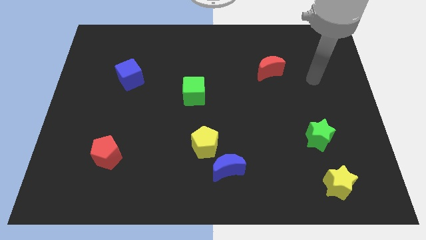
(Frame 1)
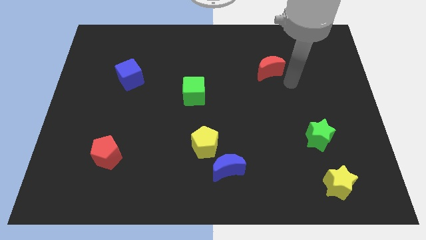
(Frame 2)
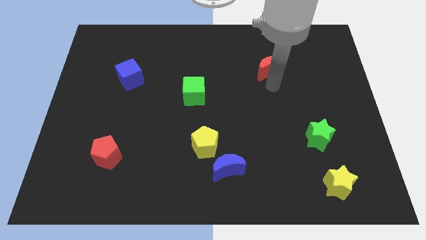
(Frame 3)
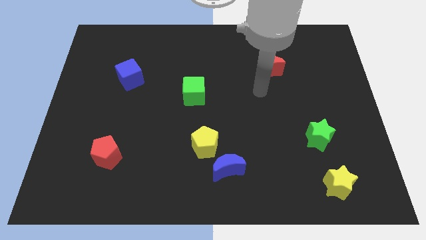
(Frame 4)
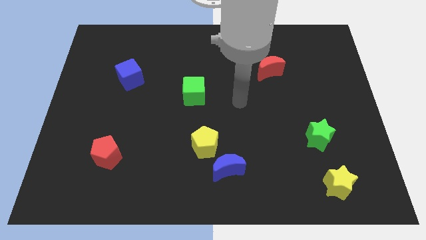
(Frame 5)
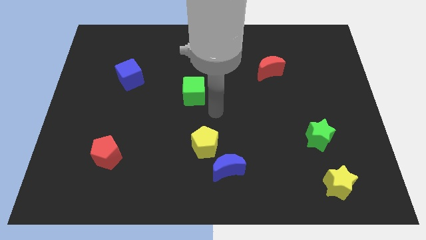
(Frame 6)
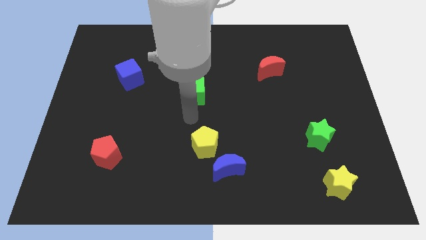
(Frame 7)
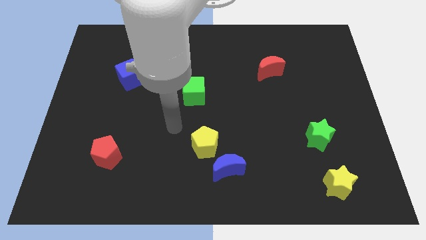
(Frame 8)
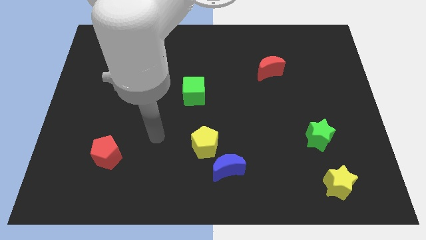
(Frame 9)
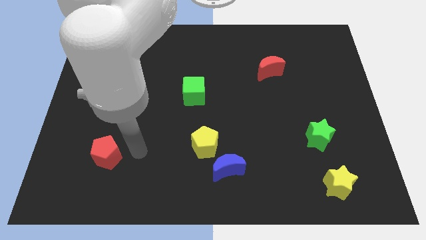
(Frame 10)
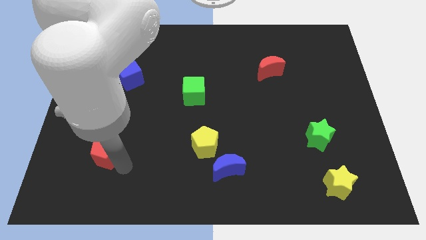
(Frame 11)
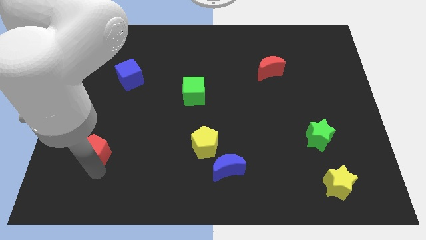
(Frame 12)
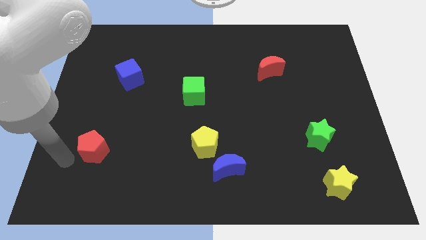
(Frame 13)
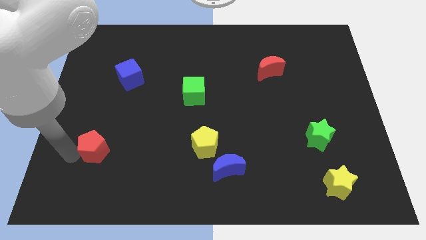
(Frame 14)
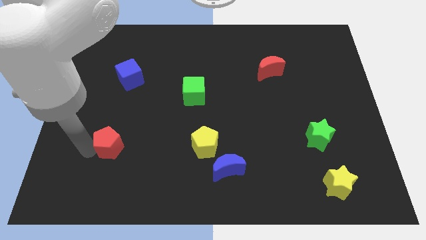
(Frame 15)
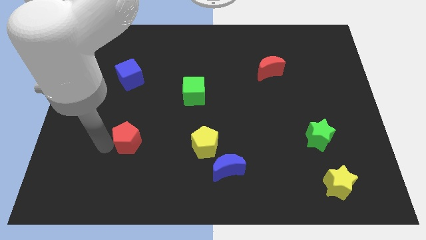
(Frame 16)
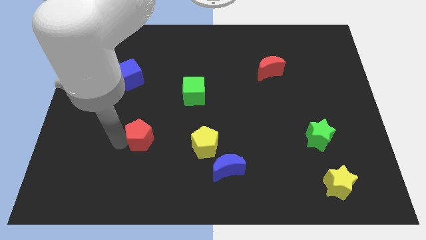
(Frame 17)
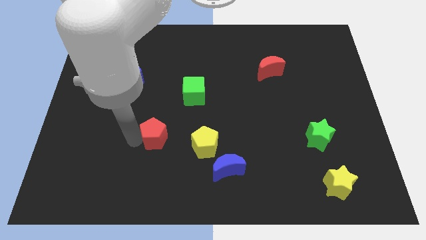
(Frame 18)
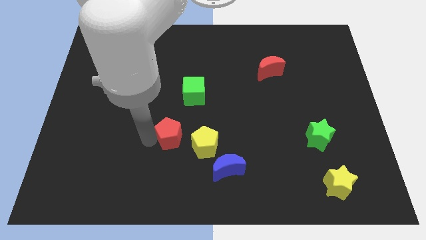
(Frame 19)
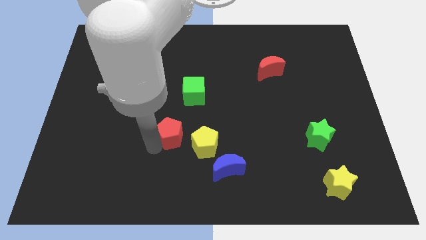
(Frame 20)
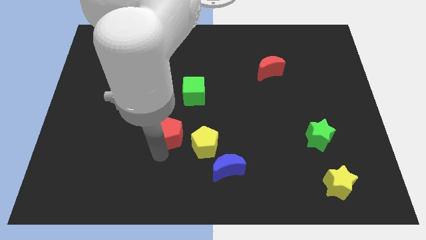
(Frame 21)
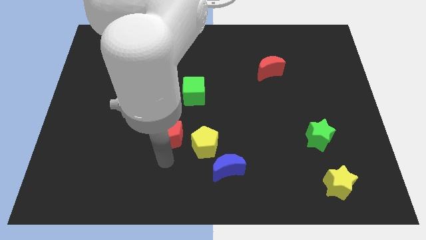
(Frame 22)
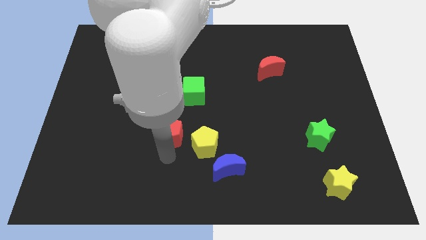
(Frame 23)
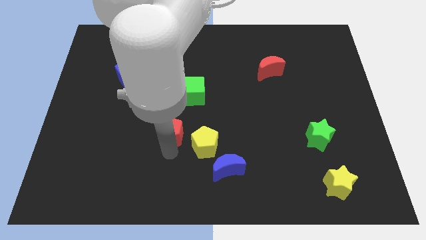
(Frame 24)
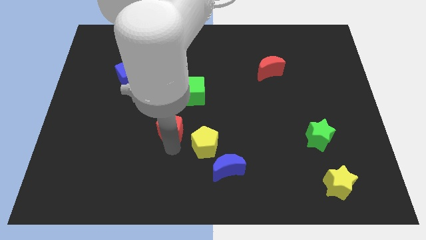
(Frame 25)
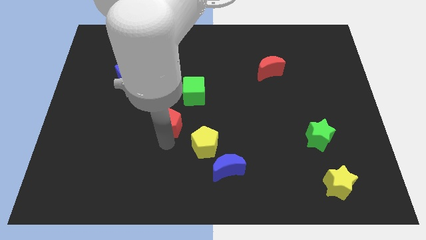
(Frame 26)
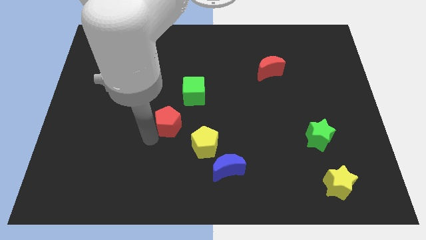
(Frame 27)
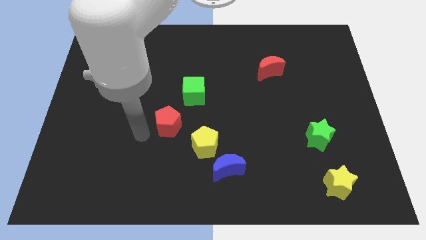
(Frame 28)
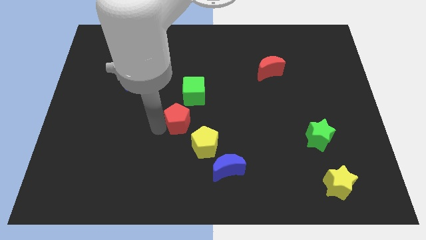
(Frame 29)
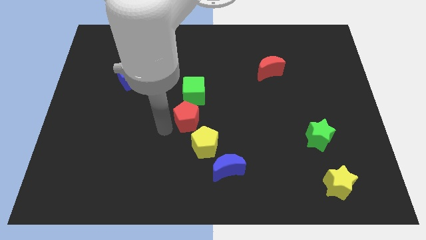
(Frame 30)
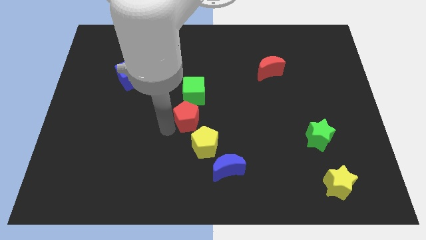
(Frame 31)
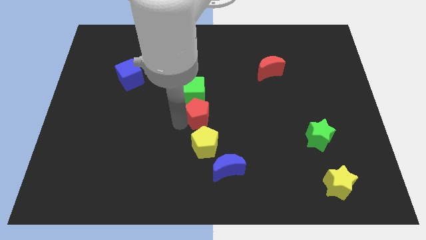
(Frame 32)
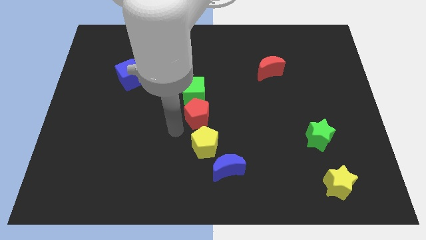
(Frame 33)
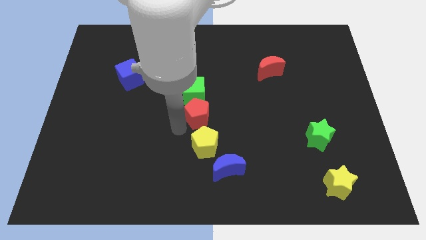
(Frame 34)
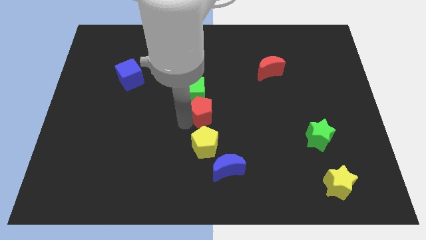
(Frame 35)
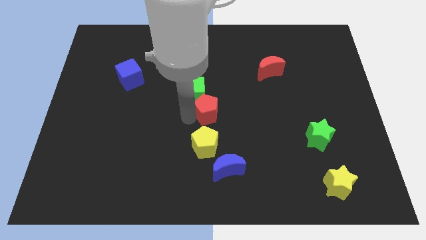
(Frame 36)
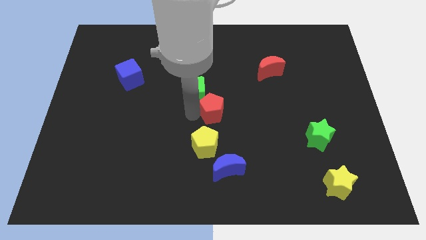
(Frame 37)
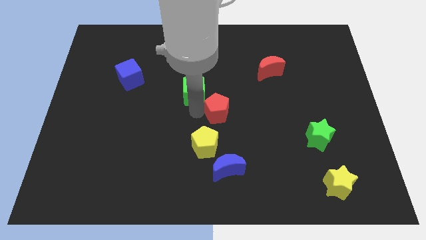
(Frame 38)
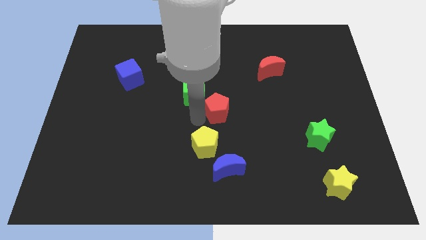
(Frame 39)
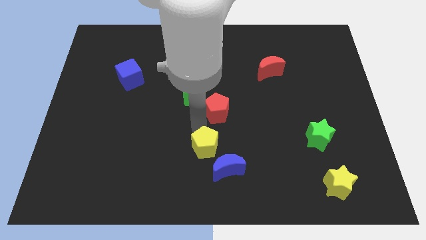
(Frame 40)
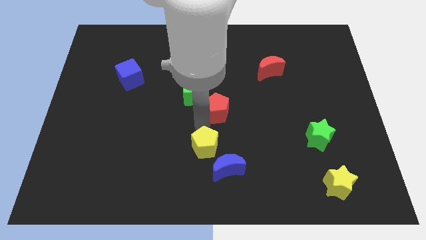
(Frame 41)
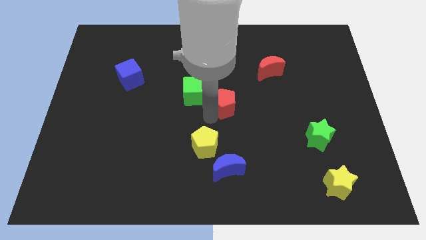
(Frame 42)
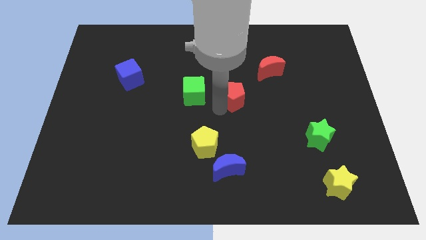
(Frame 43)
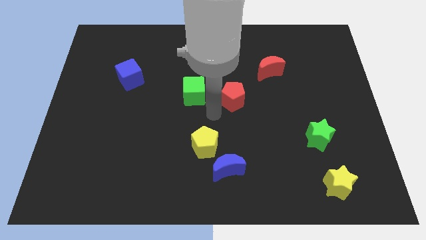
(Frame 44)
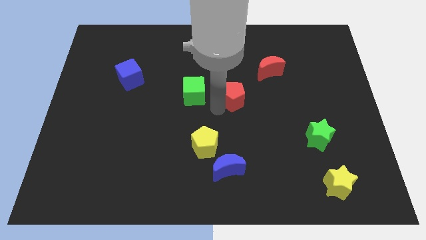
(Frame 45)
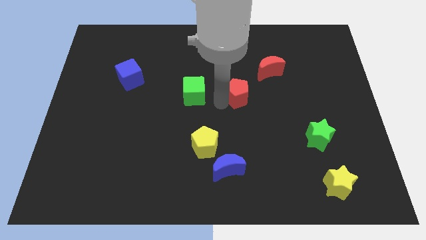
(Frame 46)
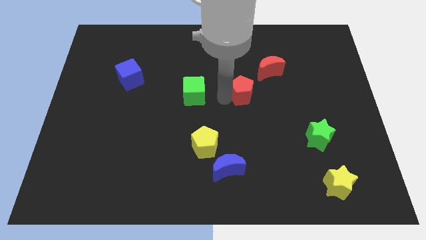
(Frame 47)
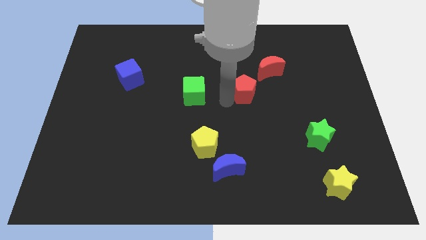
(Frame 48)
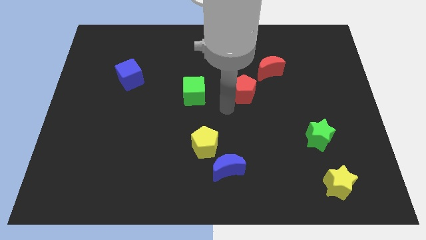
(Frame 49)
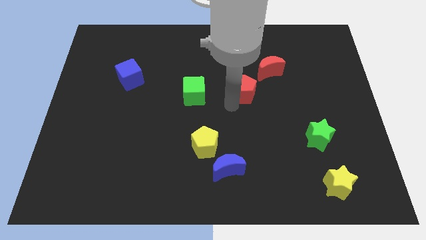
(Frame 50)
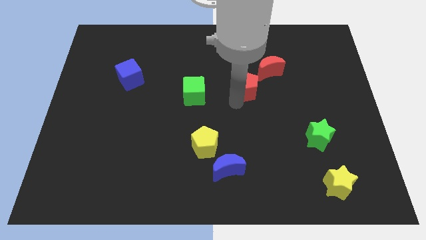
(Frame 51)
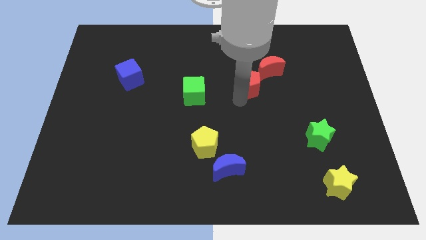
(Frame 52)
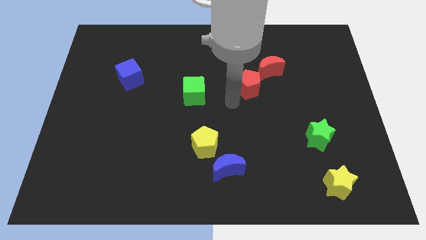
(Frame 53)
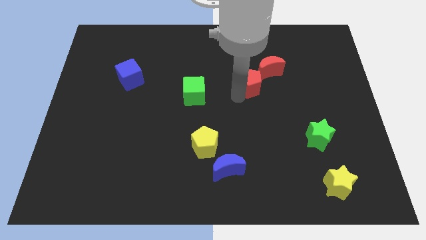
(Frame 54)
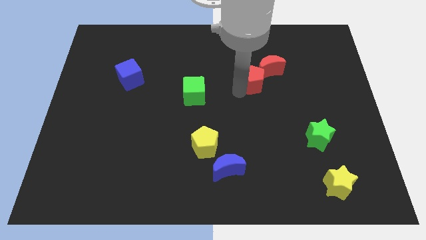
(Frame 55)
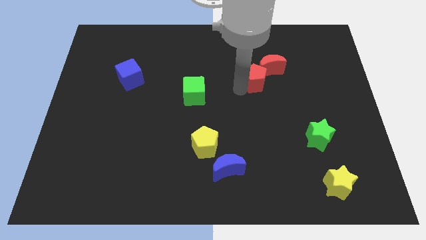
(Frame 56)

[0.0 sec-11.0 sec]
slide the red pentagon close to the red moon

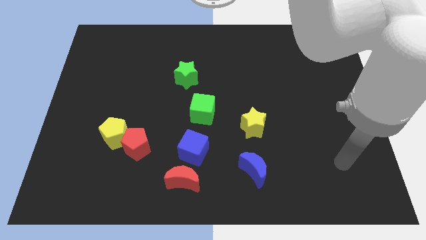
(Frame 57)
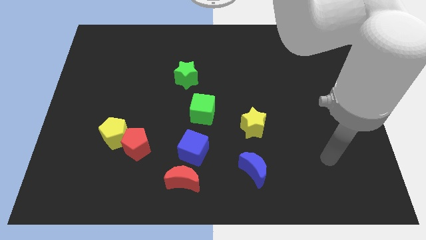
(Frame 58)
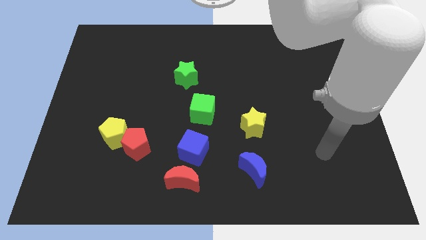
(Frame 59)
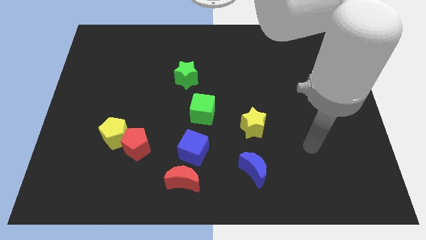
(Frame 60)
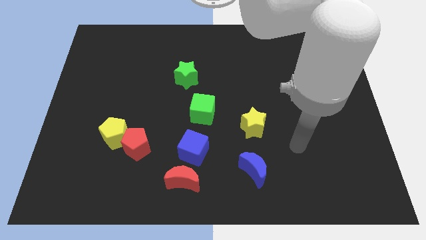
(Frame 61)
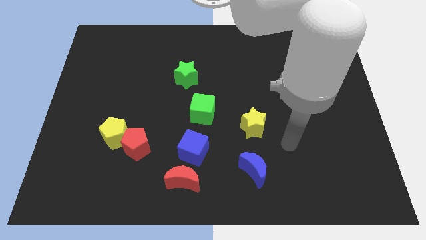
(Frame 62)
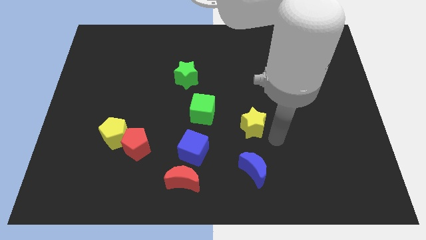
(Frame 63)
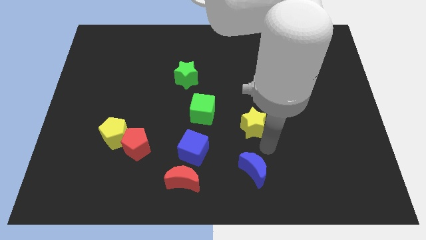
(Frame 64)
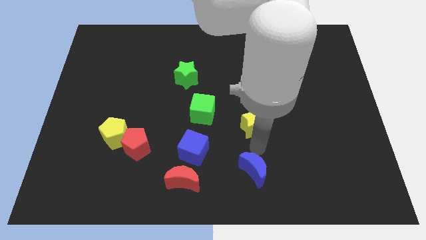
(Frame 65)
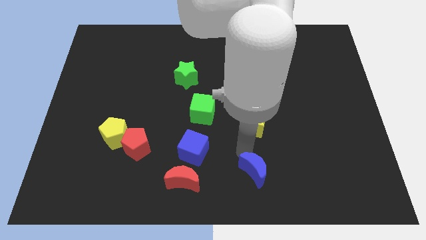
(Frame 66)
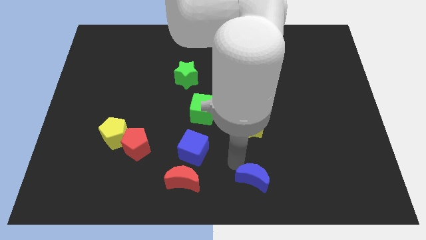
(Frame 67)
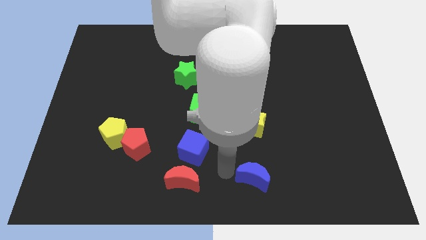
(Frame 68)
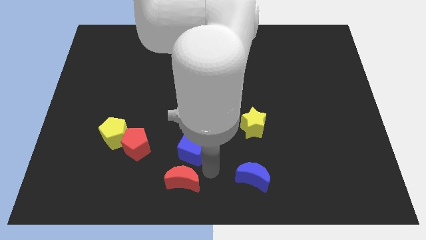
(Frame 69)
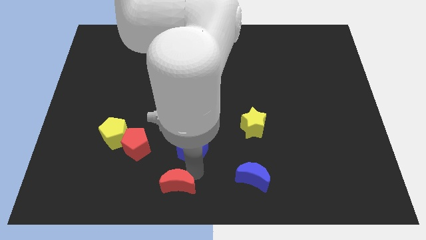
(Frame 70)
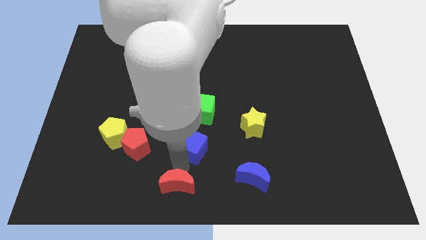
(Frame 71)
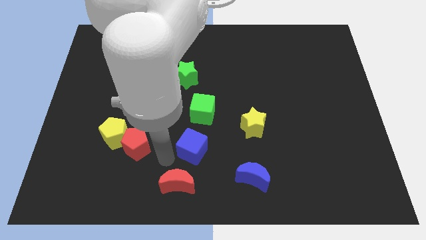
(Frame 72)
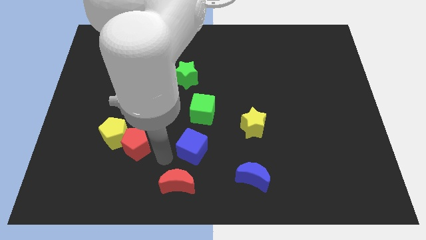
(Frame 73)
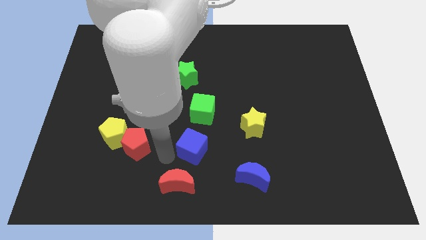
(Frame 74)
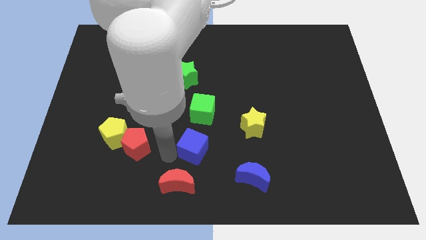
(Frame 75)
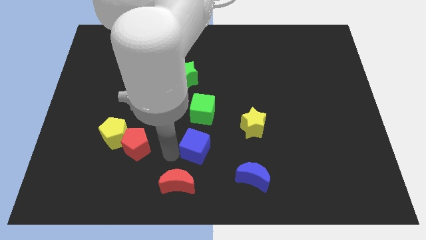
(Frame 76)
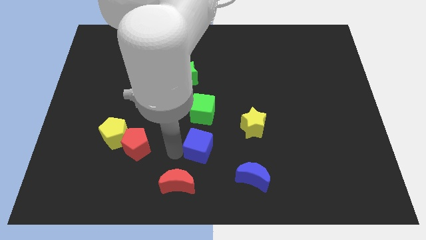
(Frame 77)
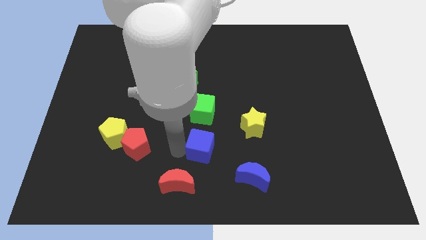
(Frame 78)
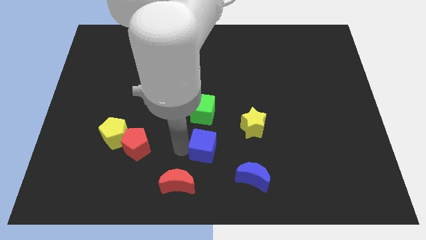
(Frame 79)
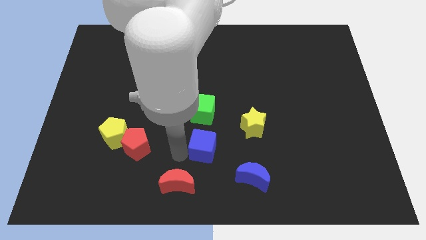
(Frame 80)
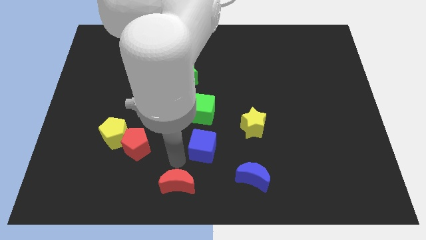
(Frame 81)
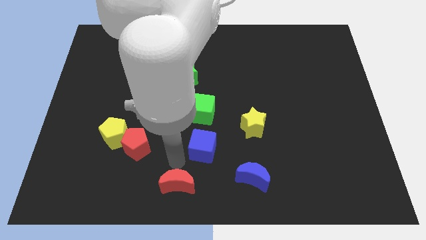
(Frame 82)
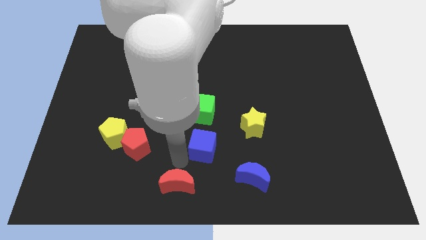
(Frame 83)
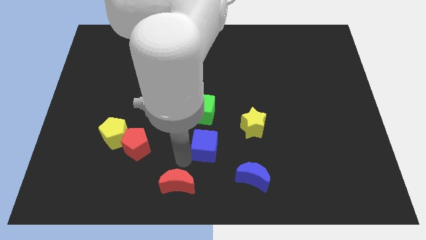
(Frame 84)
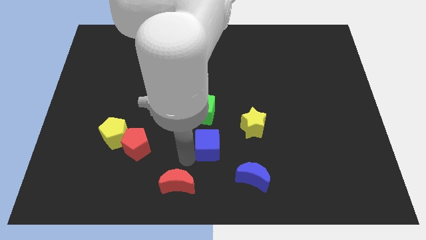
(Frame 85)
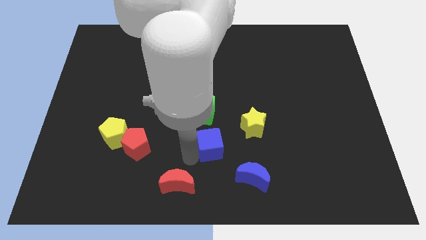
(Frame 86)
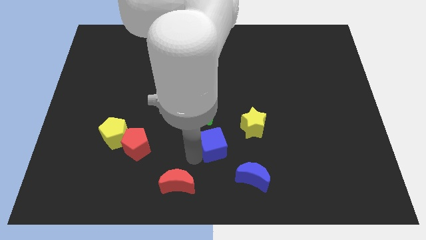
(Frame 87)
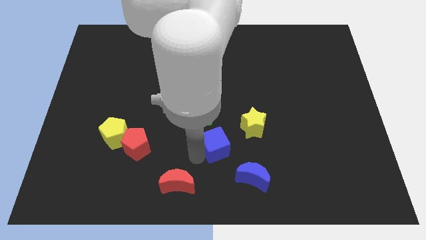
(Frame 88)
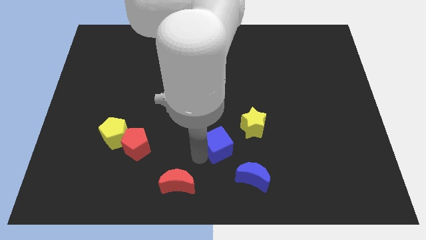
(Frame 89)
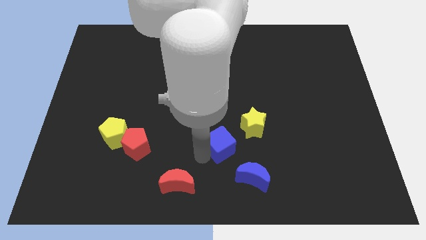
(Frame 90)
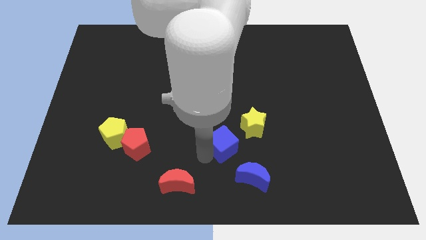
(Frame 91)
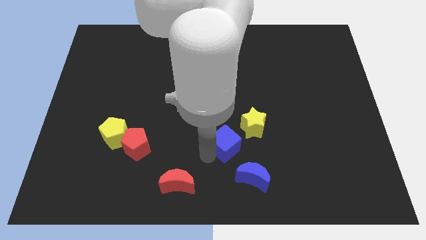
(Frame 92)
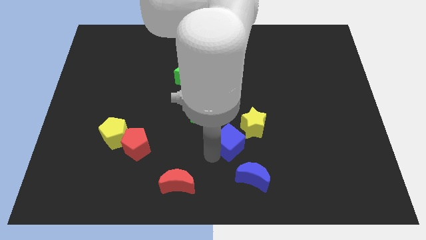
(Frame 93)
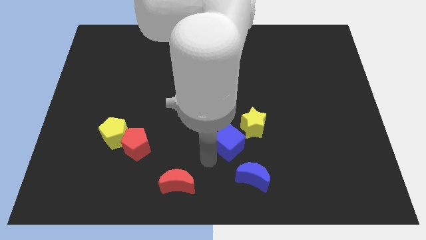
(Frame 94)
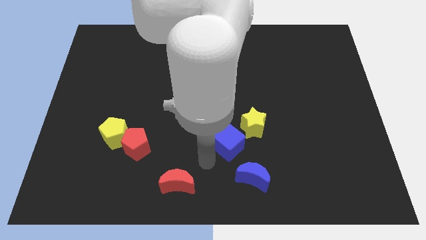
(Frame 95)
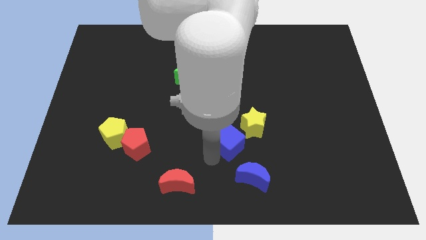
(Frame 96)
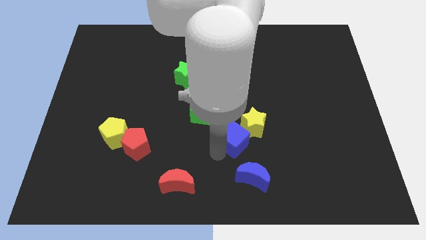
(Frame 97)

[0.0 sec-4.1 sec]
put the blue cube towards the yellow star
